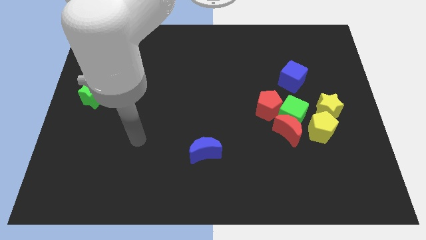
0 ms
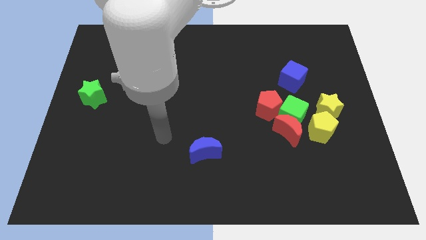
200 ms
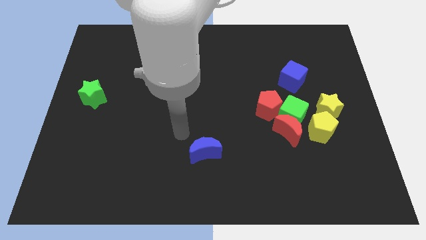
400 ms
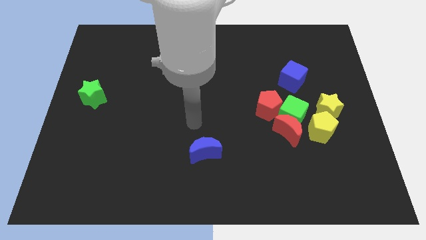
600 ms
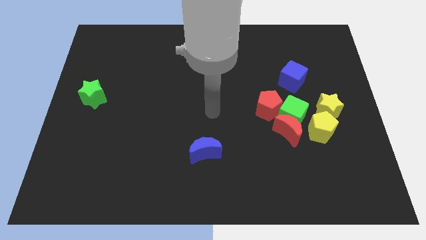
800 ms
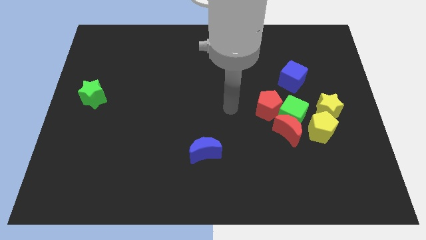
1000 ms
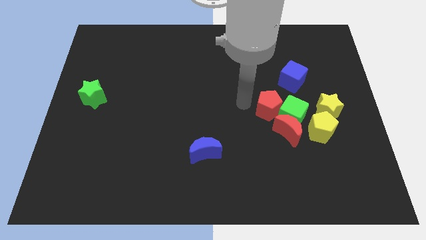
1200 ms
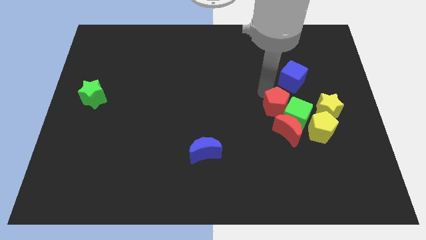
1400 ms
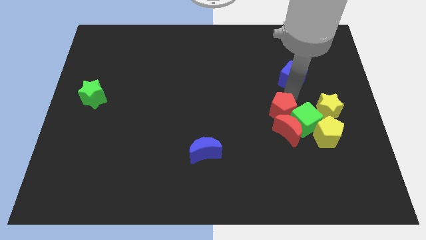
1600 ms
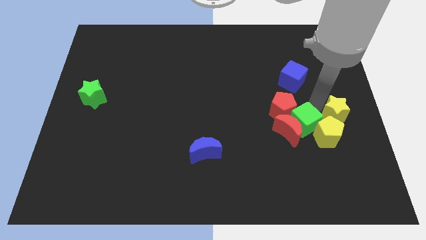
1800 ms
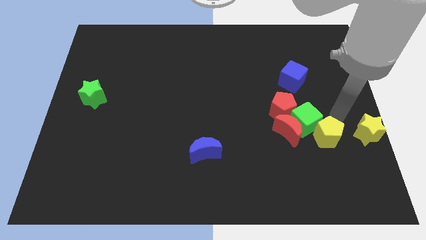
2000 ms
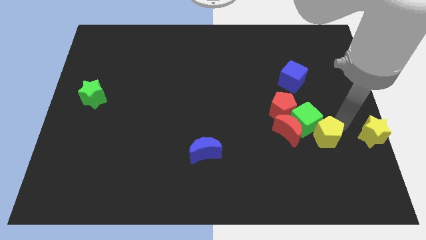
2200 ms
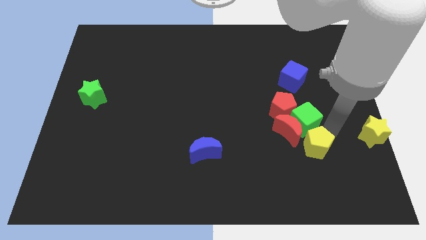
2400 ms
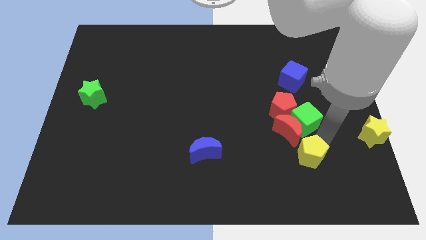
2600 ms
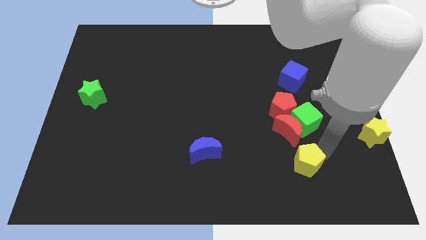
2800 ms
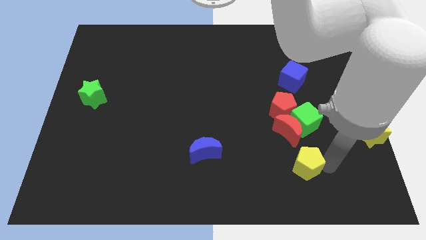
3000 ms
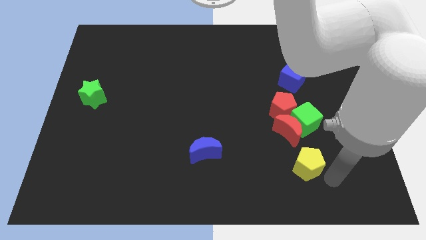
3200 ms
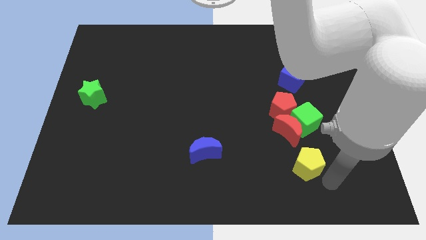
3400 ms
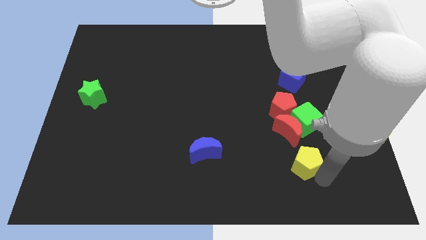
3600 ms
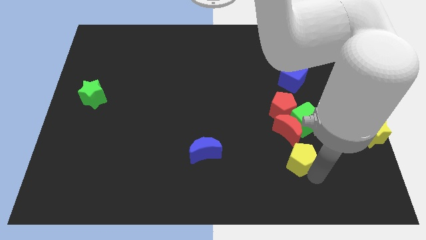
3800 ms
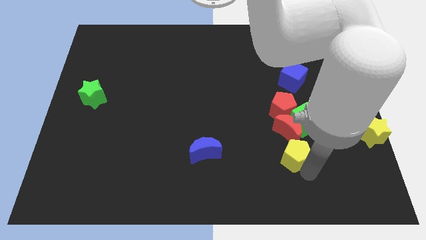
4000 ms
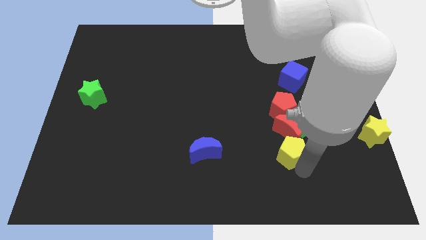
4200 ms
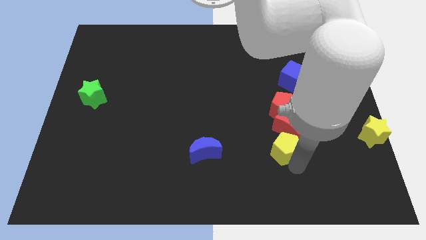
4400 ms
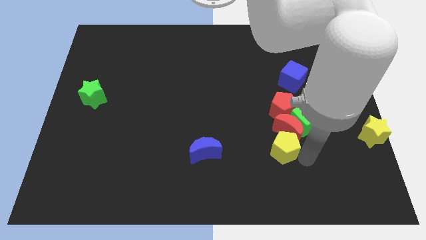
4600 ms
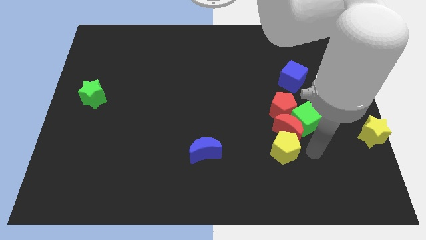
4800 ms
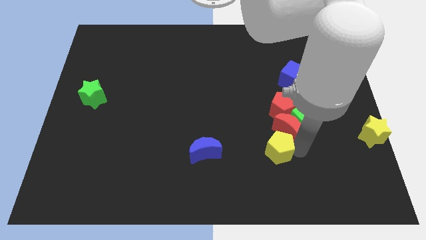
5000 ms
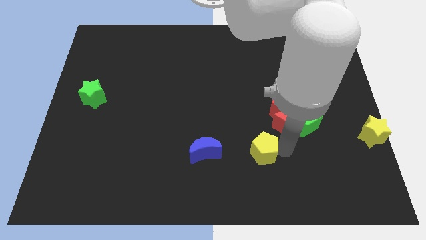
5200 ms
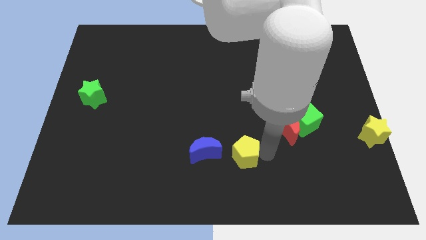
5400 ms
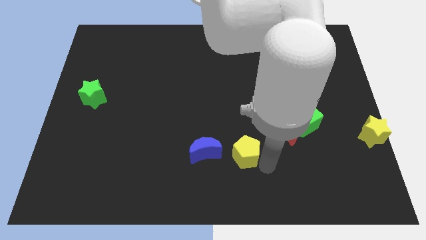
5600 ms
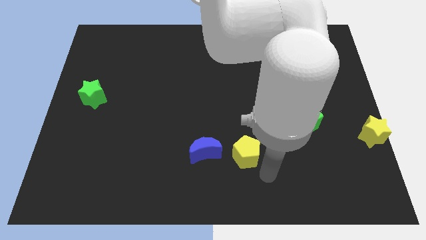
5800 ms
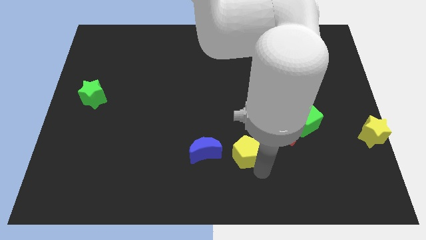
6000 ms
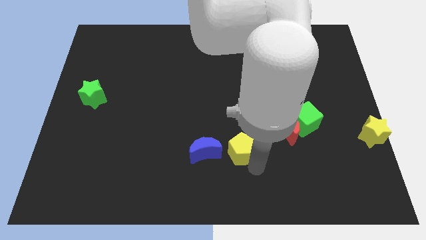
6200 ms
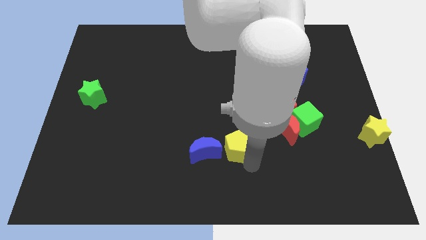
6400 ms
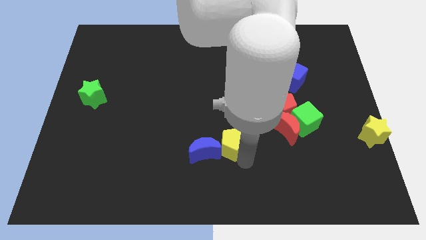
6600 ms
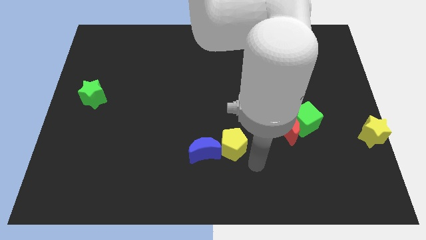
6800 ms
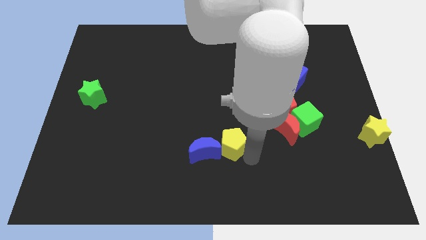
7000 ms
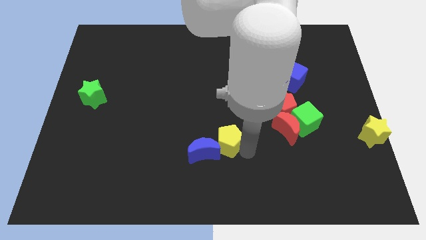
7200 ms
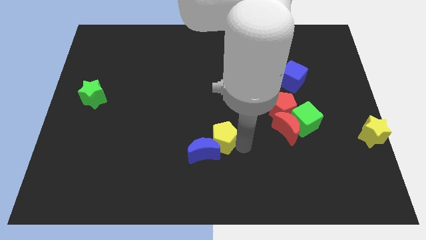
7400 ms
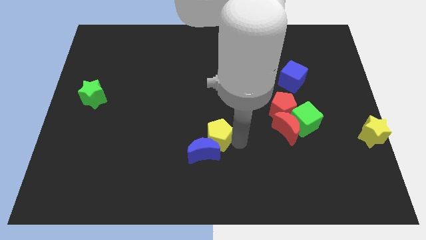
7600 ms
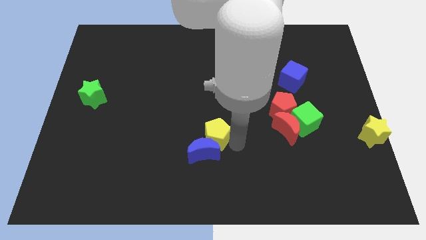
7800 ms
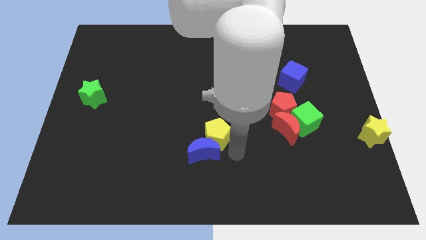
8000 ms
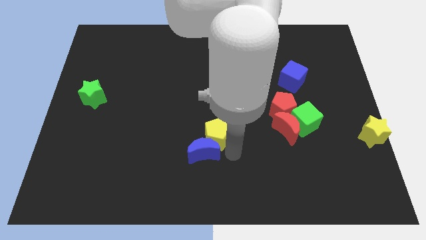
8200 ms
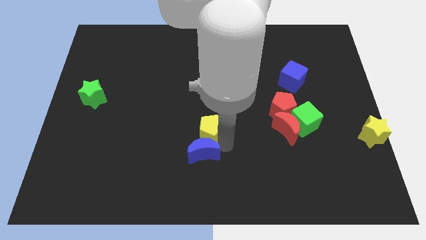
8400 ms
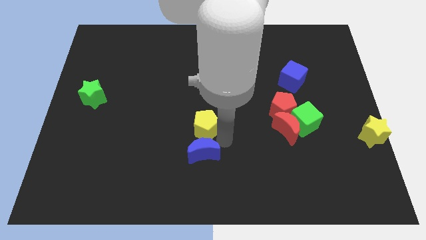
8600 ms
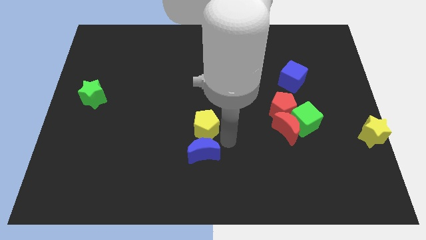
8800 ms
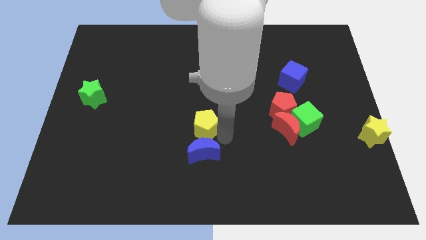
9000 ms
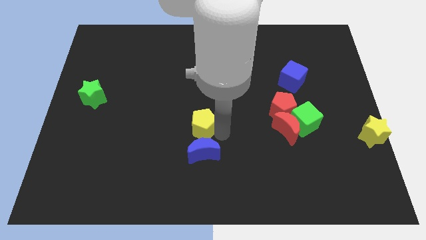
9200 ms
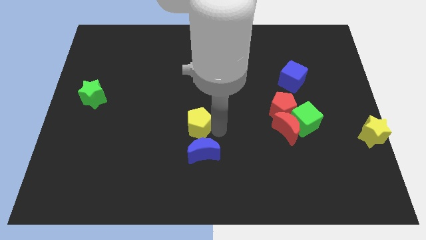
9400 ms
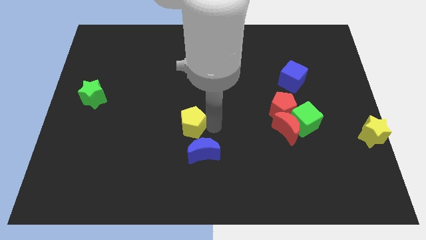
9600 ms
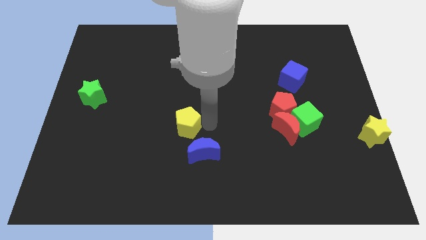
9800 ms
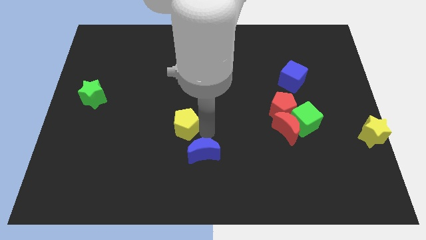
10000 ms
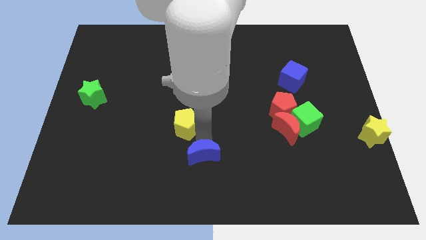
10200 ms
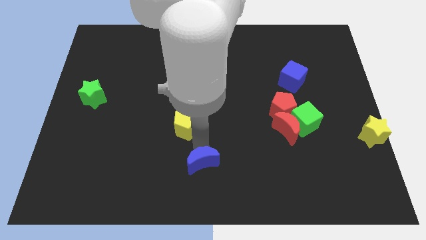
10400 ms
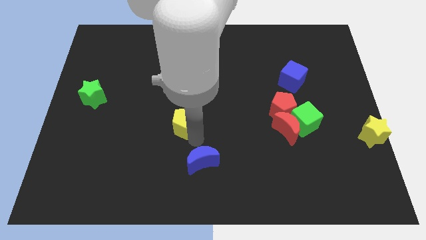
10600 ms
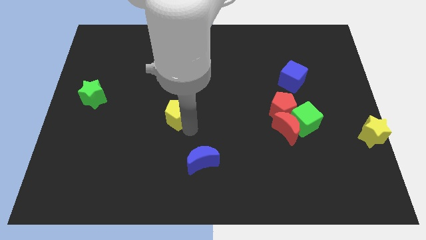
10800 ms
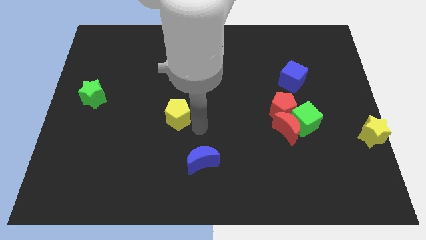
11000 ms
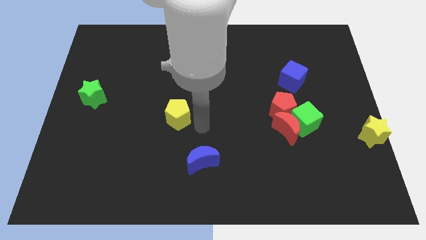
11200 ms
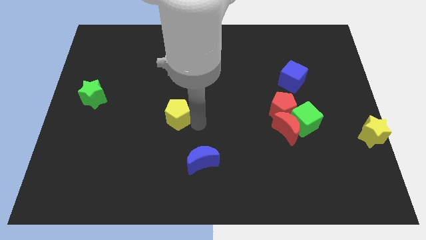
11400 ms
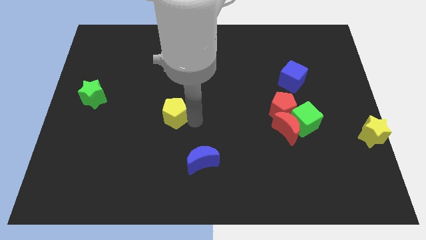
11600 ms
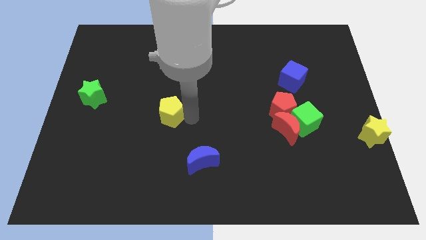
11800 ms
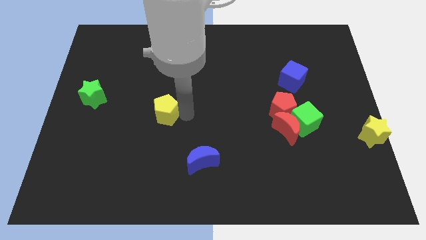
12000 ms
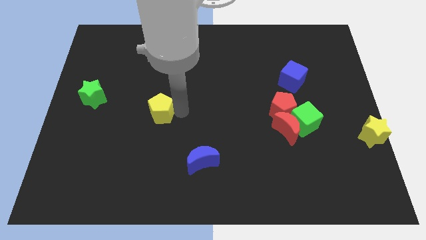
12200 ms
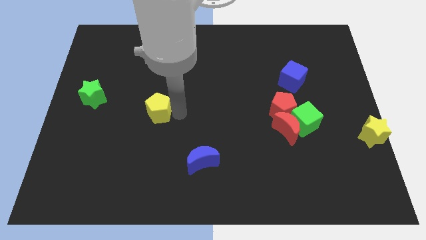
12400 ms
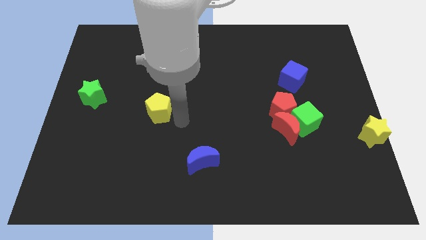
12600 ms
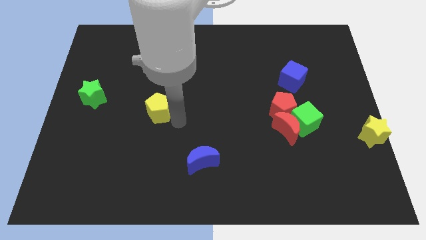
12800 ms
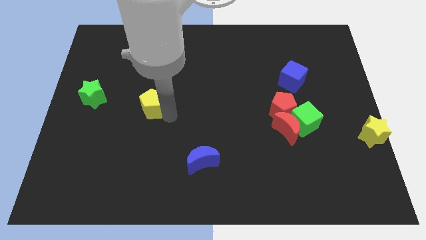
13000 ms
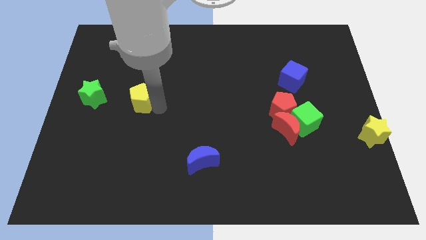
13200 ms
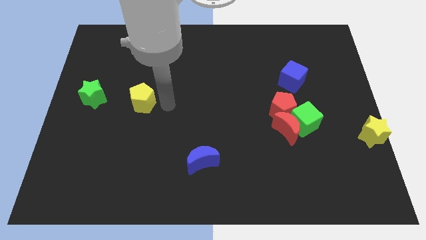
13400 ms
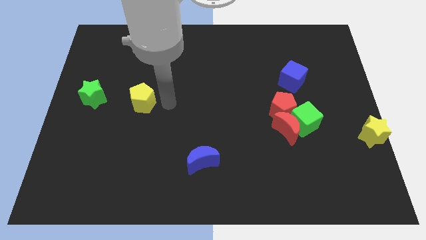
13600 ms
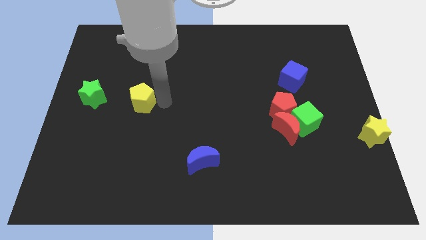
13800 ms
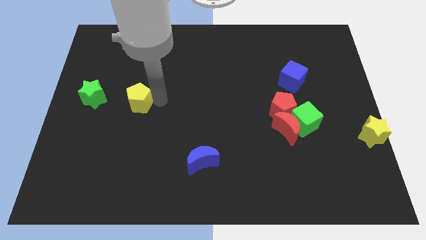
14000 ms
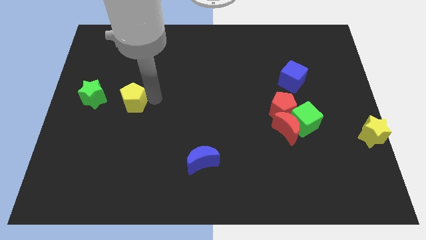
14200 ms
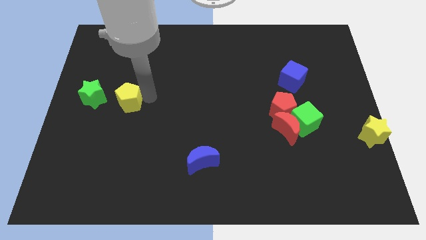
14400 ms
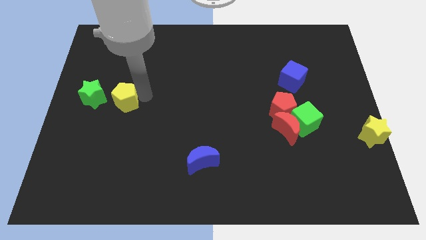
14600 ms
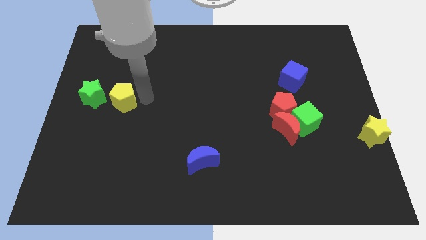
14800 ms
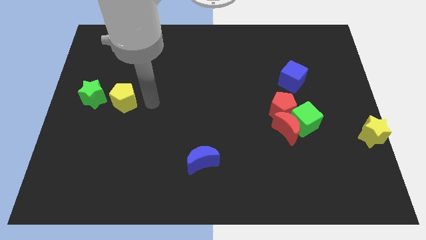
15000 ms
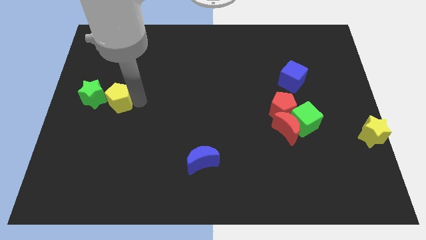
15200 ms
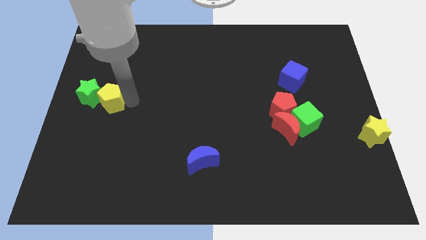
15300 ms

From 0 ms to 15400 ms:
slide the yellow pentagon next to the green star
